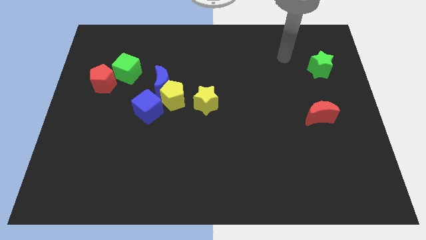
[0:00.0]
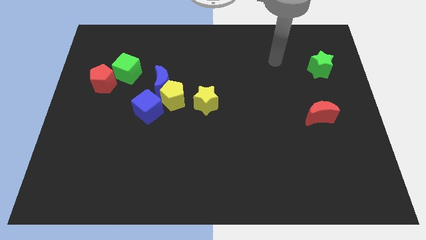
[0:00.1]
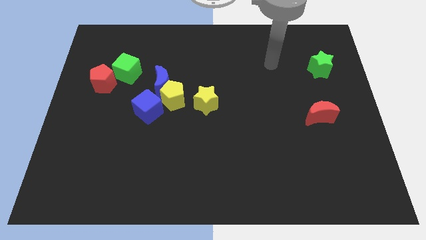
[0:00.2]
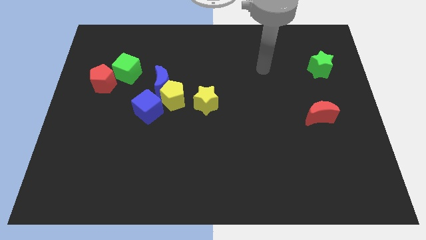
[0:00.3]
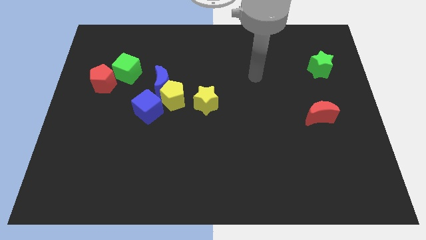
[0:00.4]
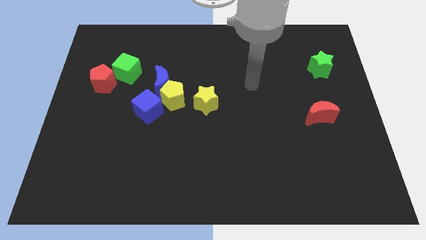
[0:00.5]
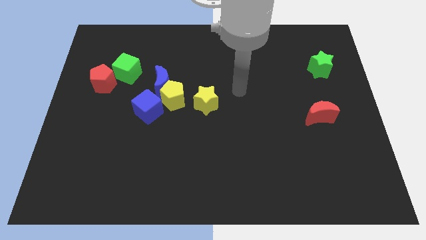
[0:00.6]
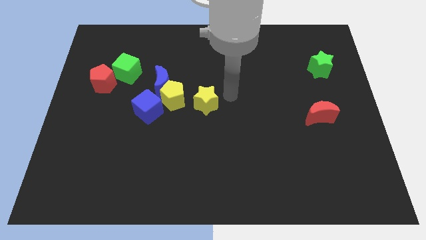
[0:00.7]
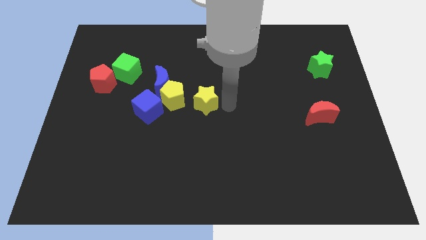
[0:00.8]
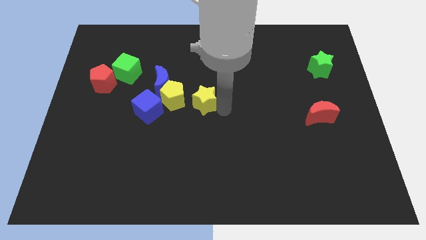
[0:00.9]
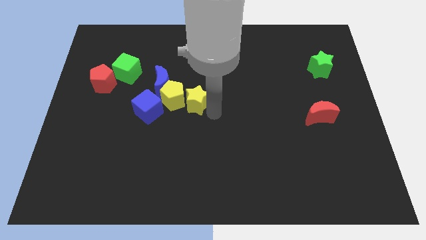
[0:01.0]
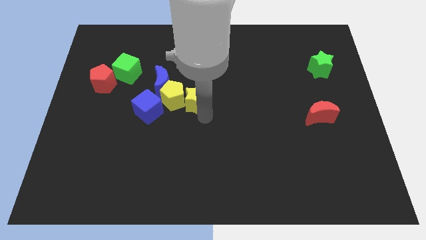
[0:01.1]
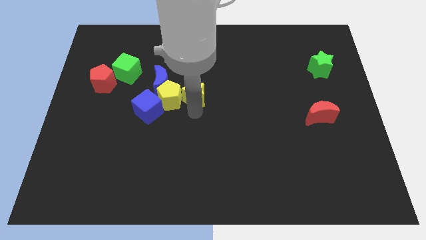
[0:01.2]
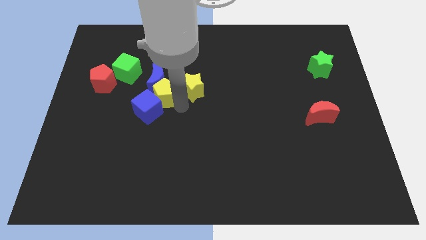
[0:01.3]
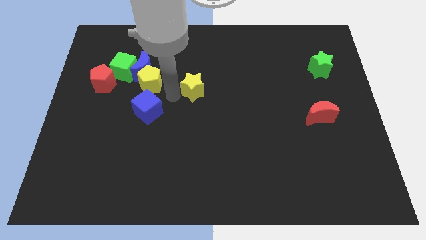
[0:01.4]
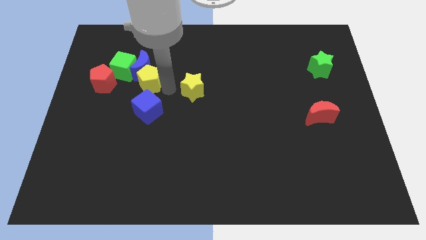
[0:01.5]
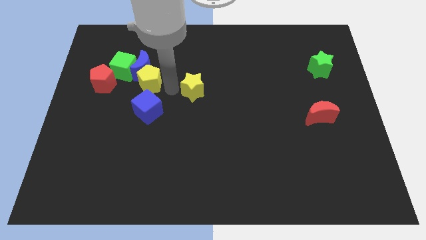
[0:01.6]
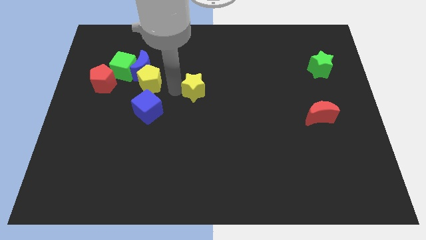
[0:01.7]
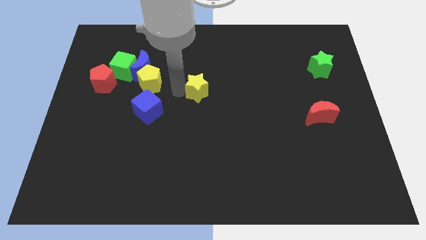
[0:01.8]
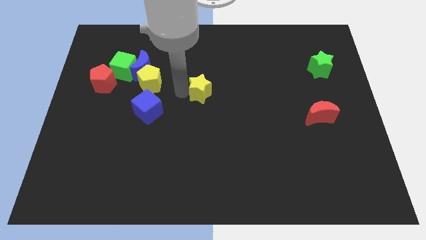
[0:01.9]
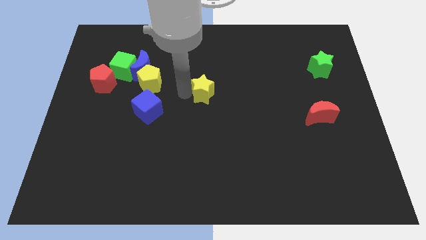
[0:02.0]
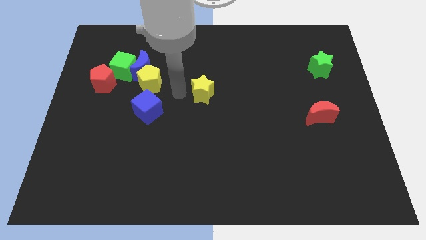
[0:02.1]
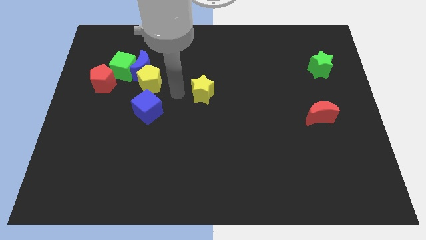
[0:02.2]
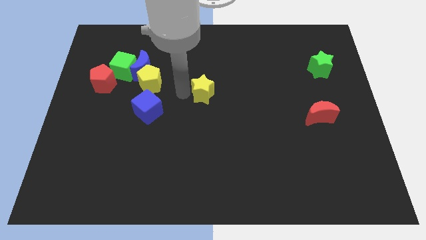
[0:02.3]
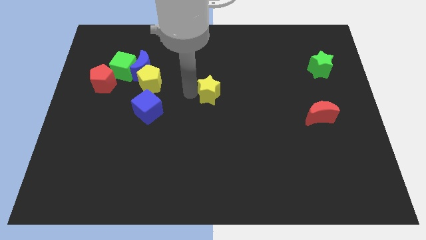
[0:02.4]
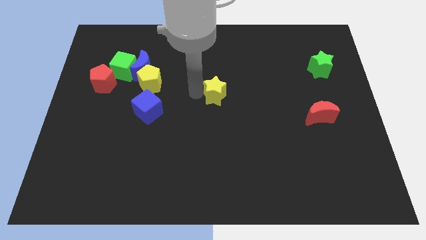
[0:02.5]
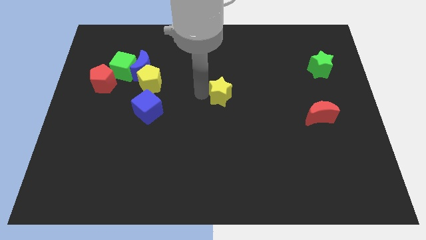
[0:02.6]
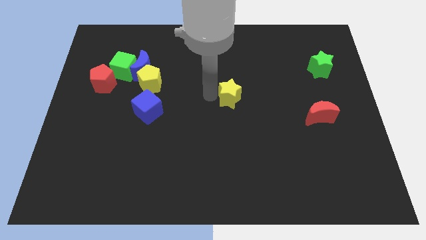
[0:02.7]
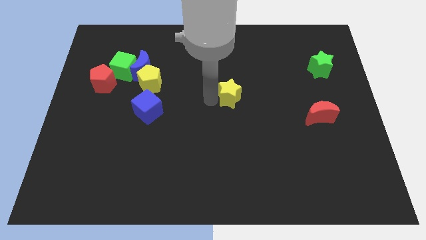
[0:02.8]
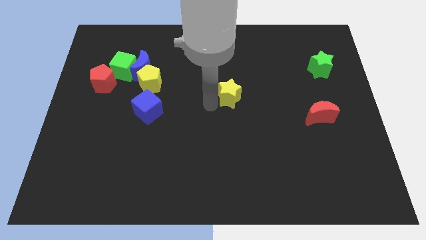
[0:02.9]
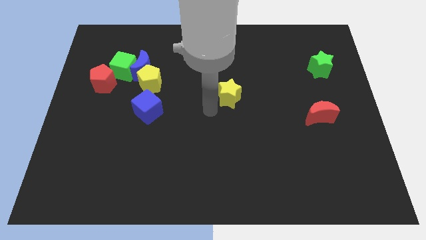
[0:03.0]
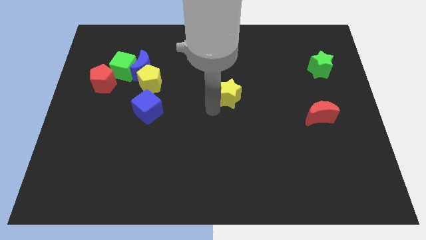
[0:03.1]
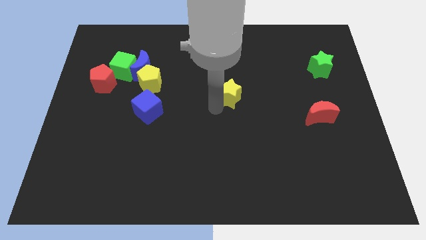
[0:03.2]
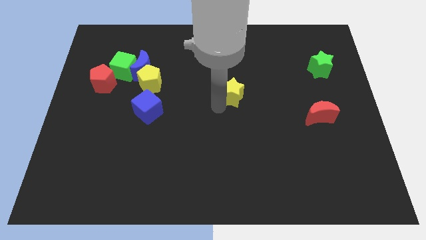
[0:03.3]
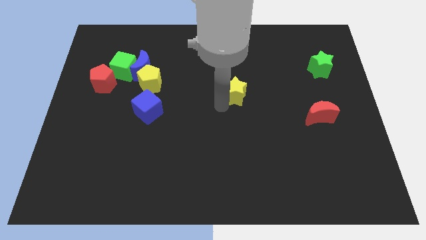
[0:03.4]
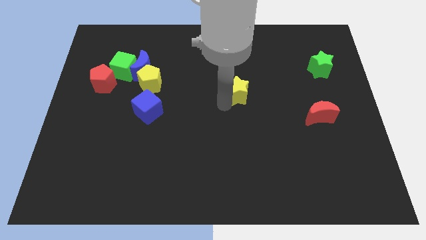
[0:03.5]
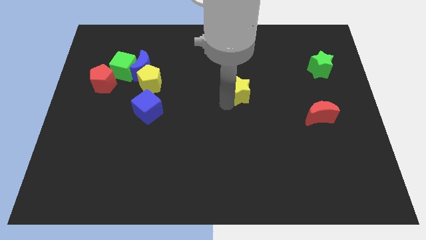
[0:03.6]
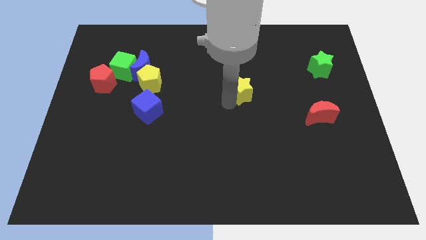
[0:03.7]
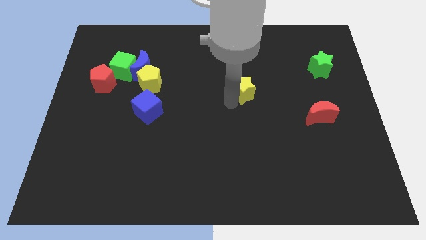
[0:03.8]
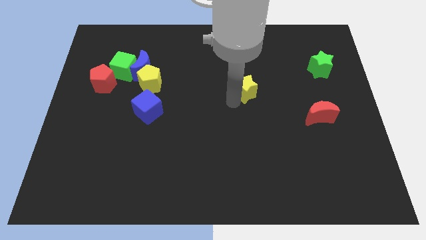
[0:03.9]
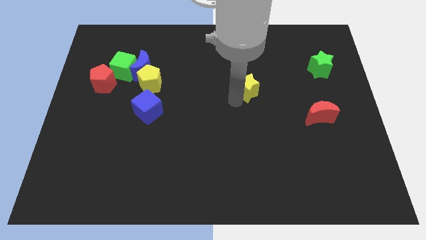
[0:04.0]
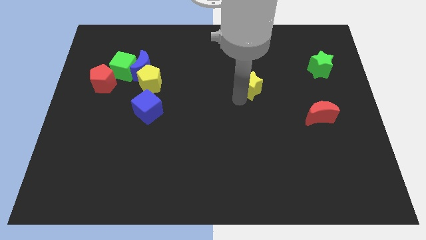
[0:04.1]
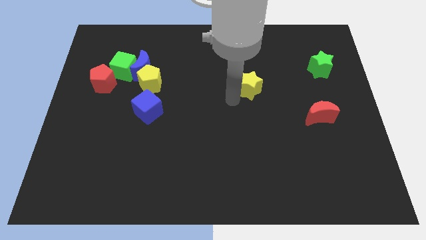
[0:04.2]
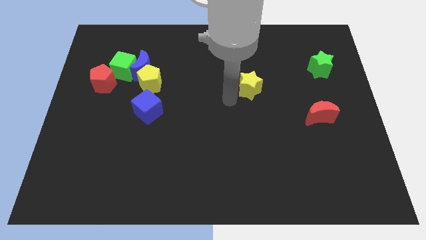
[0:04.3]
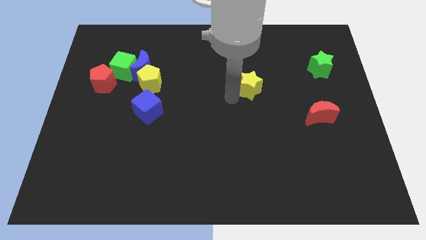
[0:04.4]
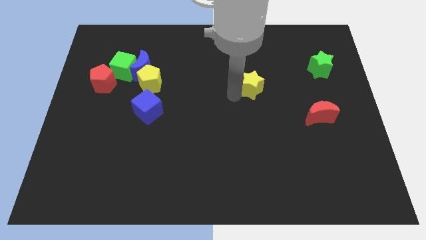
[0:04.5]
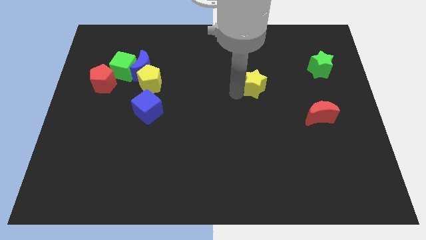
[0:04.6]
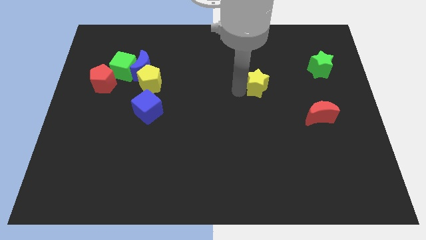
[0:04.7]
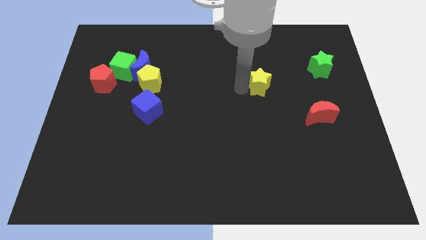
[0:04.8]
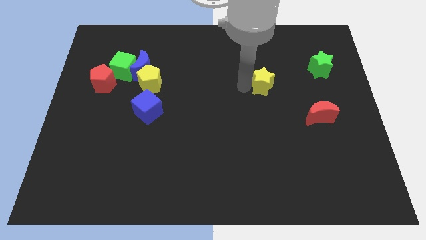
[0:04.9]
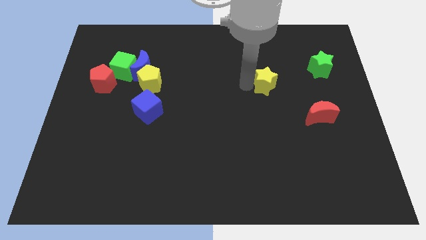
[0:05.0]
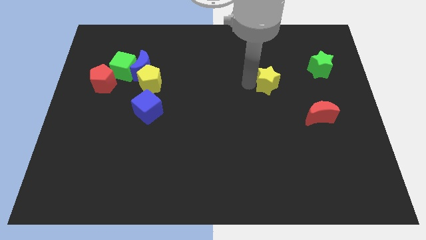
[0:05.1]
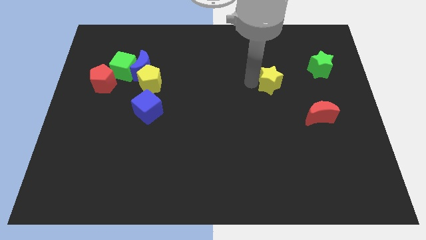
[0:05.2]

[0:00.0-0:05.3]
put the yellow star to the left of the green star

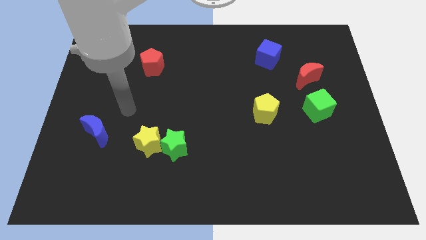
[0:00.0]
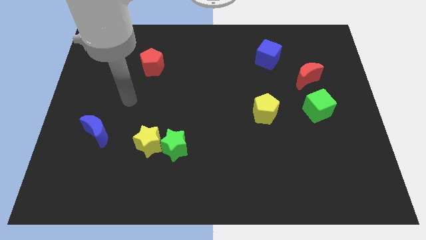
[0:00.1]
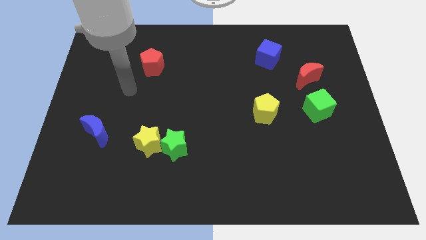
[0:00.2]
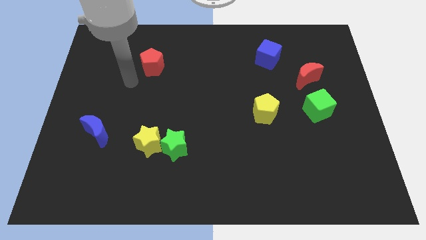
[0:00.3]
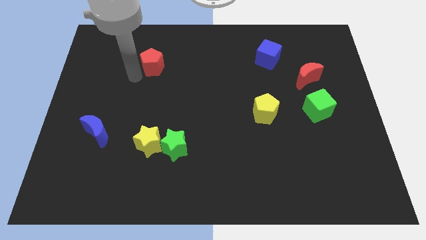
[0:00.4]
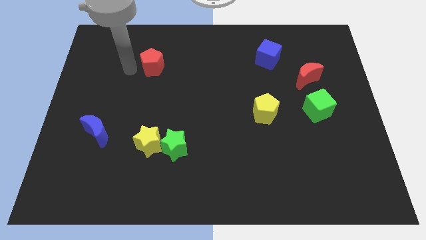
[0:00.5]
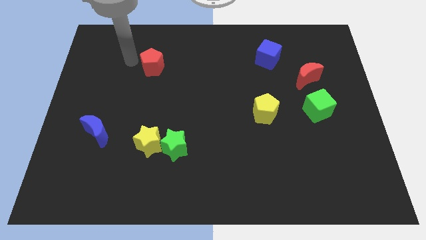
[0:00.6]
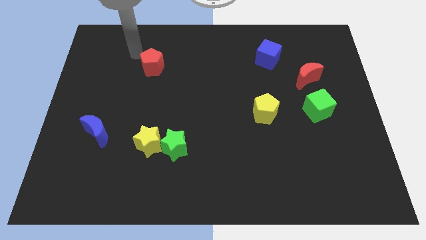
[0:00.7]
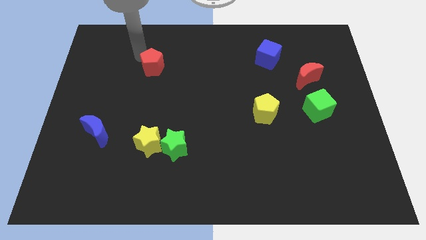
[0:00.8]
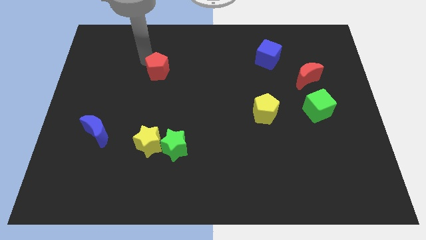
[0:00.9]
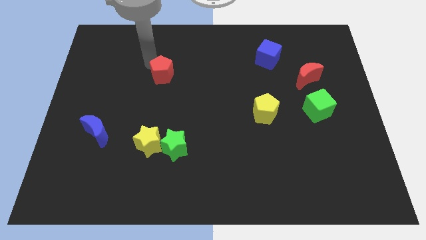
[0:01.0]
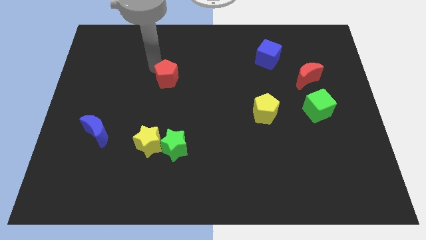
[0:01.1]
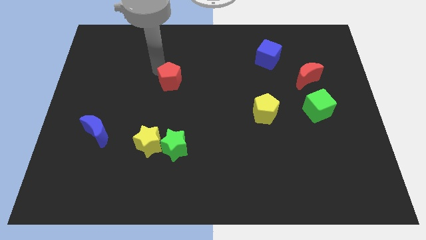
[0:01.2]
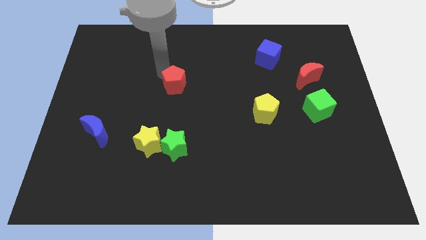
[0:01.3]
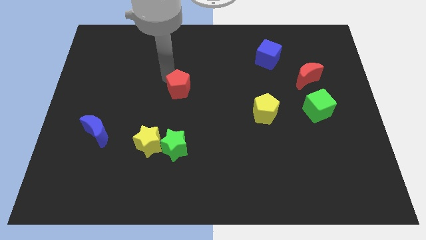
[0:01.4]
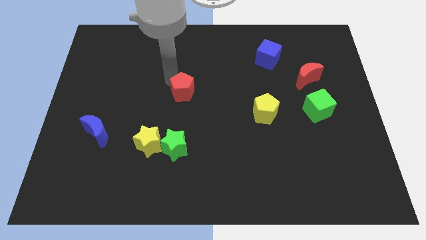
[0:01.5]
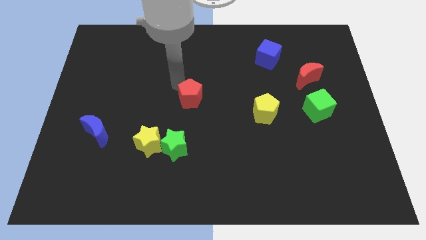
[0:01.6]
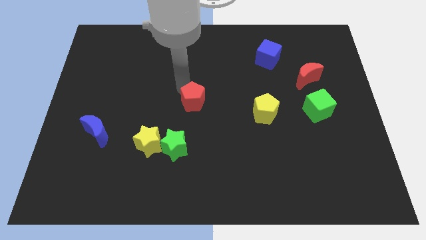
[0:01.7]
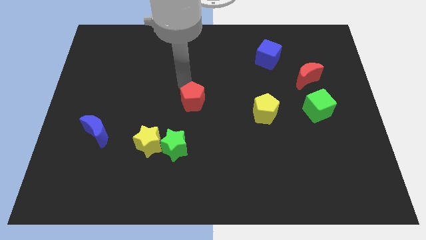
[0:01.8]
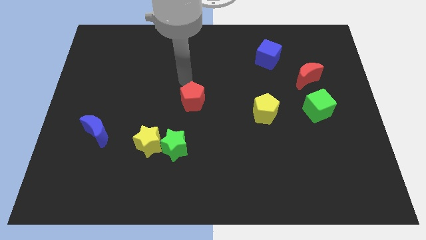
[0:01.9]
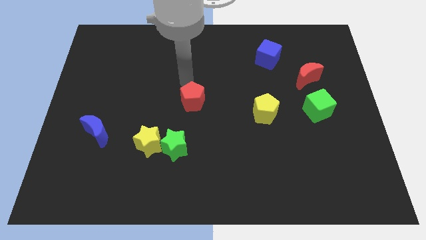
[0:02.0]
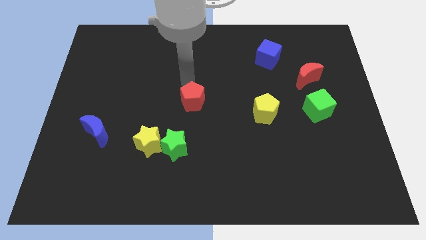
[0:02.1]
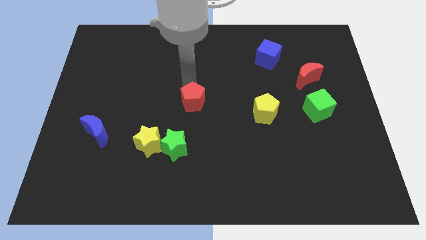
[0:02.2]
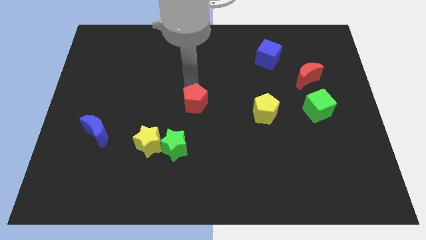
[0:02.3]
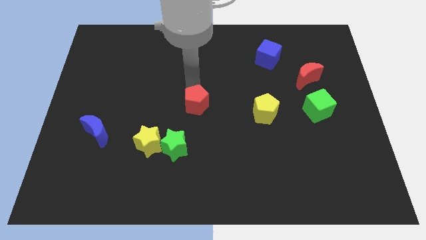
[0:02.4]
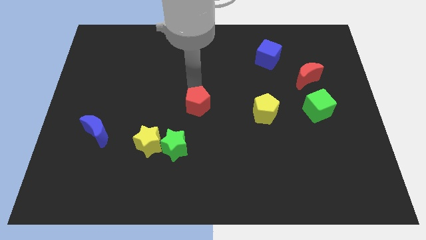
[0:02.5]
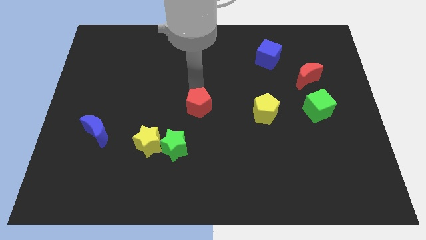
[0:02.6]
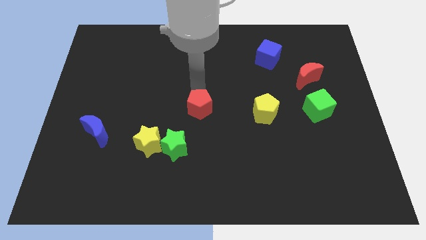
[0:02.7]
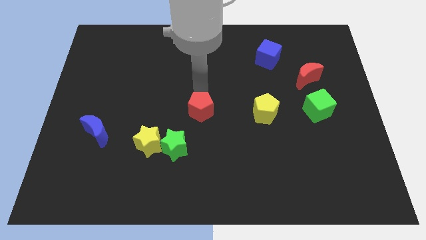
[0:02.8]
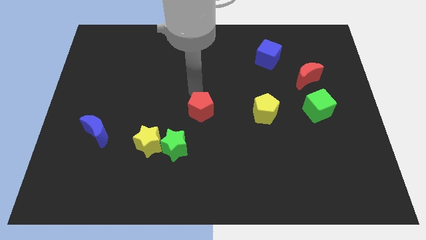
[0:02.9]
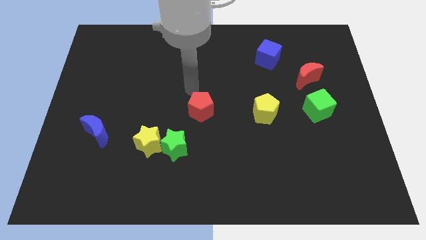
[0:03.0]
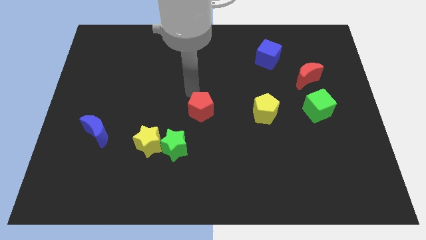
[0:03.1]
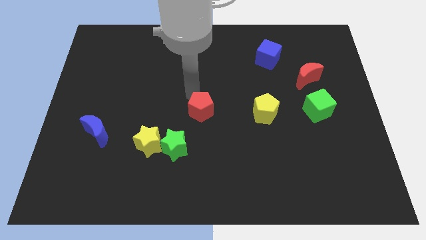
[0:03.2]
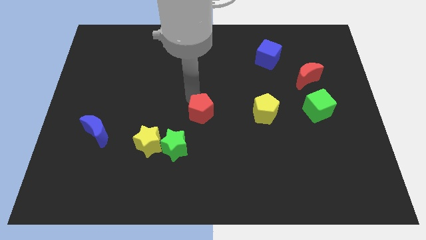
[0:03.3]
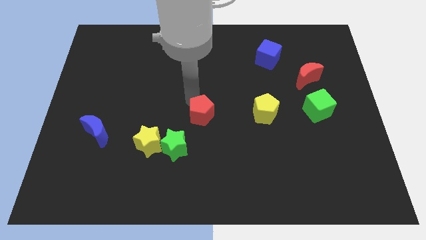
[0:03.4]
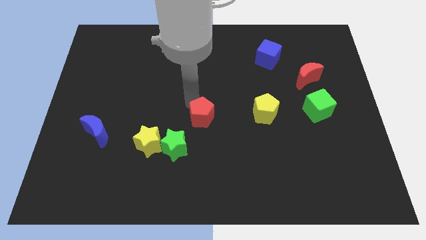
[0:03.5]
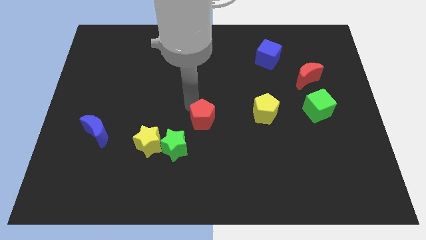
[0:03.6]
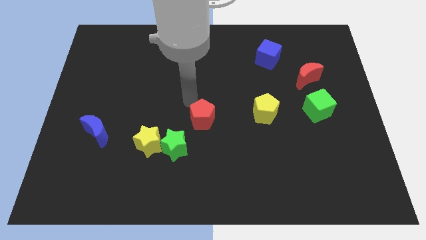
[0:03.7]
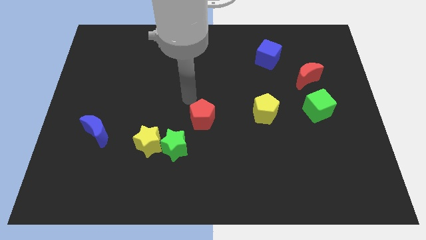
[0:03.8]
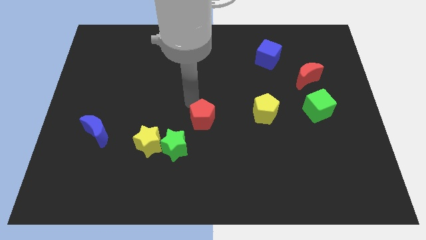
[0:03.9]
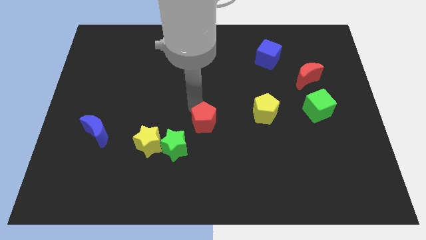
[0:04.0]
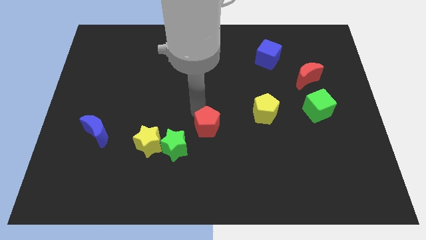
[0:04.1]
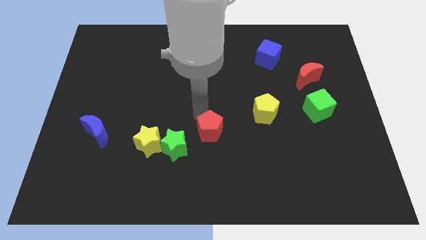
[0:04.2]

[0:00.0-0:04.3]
put the red pentagon right of the green star
